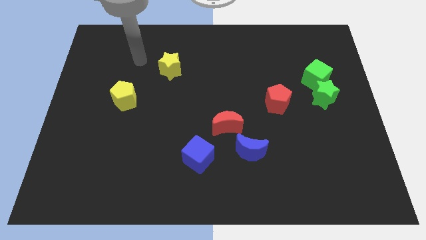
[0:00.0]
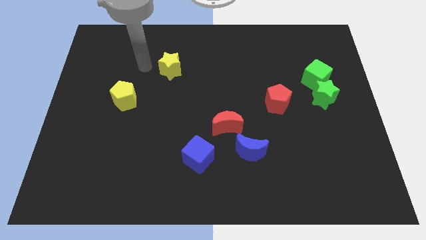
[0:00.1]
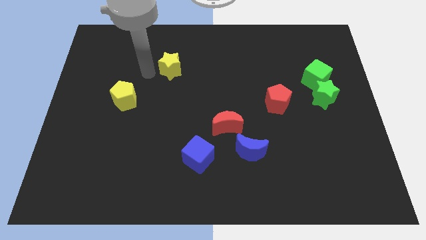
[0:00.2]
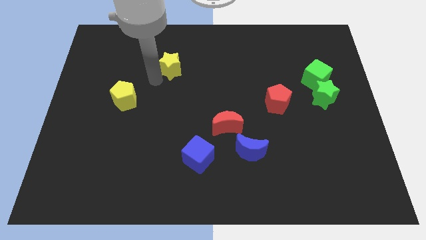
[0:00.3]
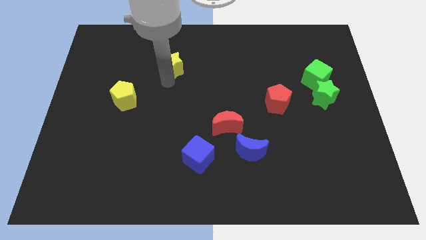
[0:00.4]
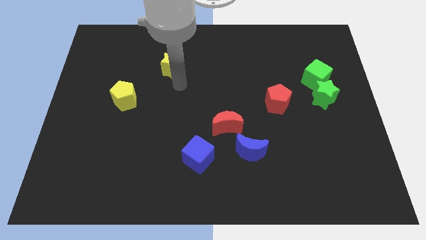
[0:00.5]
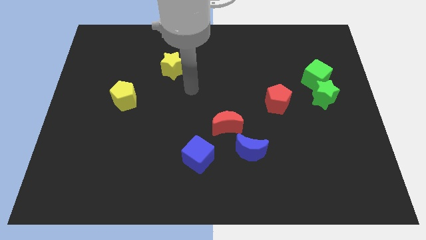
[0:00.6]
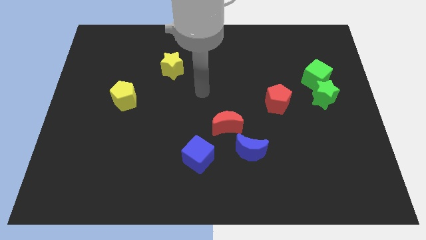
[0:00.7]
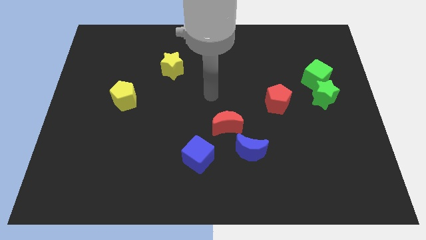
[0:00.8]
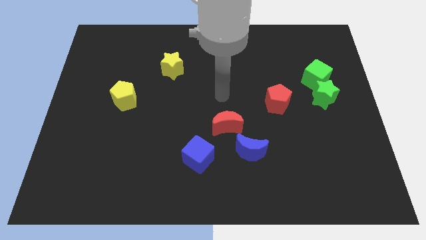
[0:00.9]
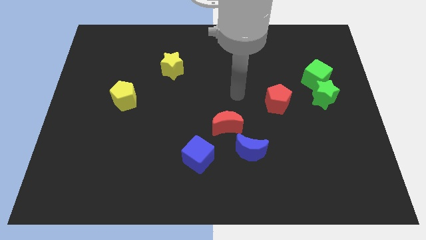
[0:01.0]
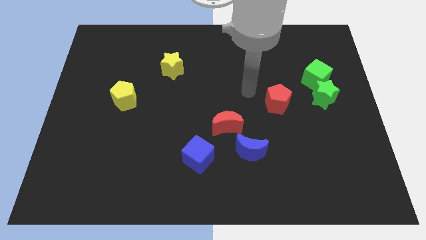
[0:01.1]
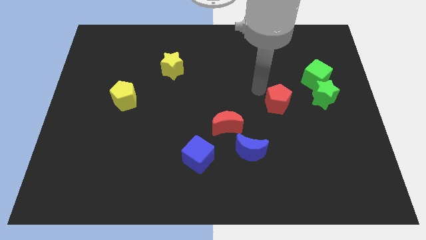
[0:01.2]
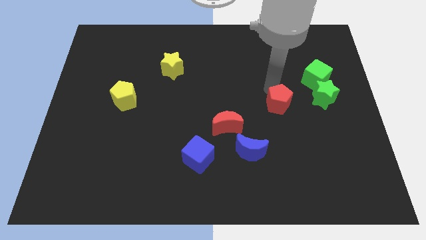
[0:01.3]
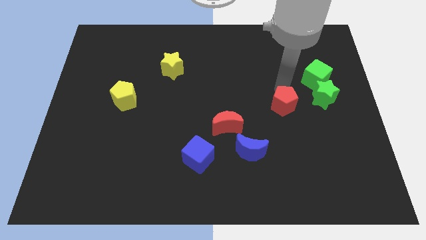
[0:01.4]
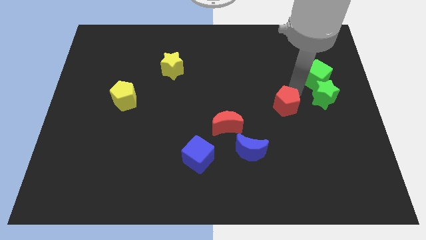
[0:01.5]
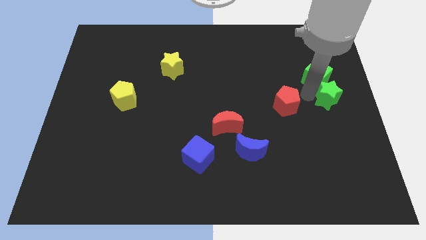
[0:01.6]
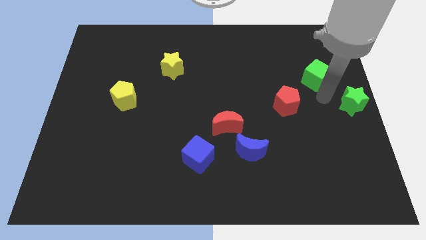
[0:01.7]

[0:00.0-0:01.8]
move the green cube away from the green star

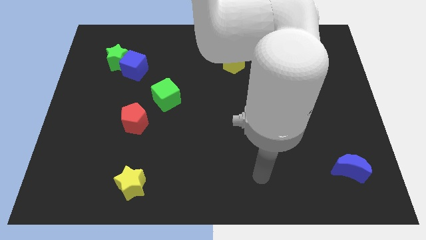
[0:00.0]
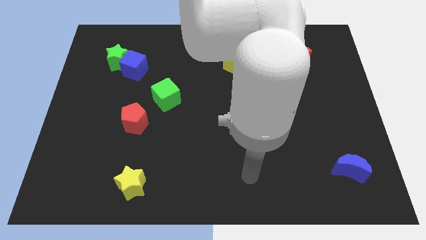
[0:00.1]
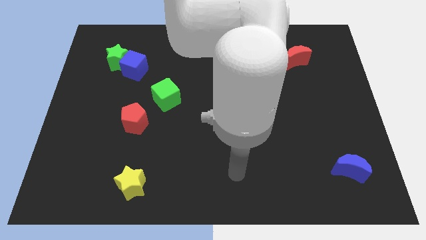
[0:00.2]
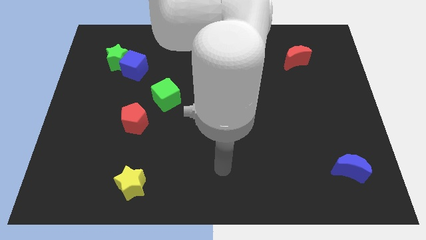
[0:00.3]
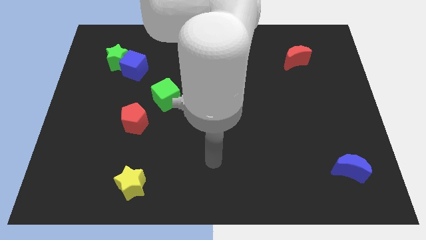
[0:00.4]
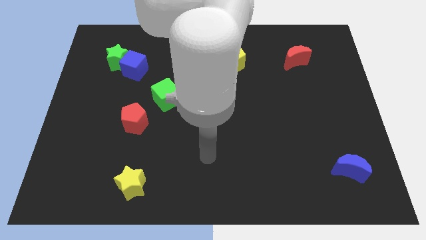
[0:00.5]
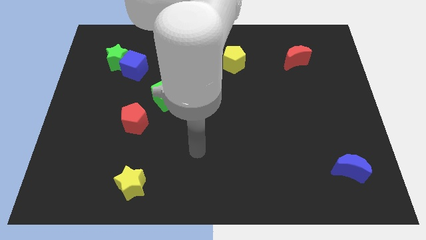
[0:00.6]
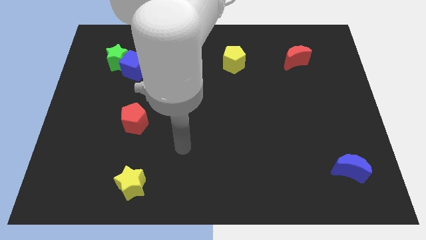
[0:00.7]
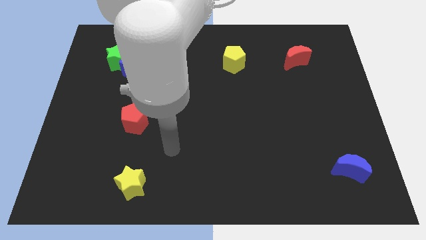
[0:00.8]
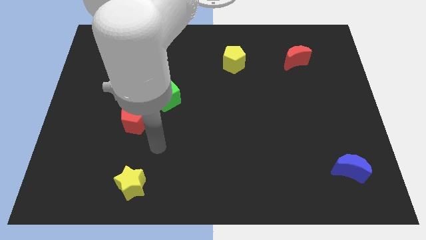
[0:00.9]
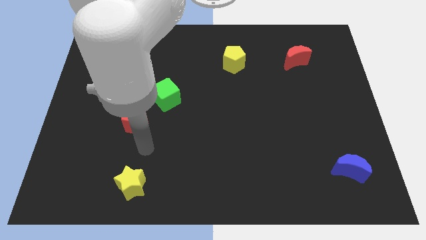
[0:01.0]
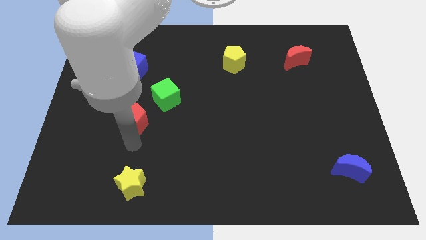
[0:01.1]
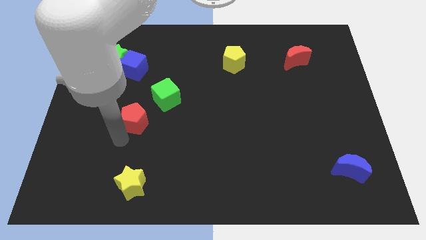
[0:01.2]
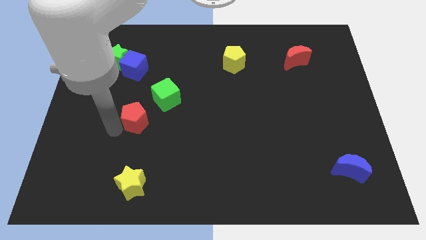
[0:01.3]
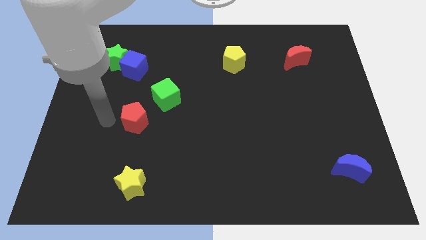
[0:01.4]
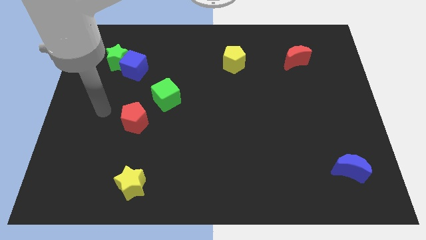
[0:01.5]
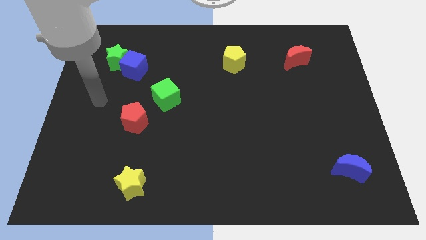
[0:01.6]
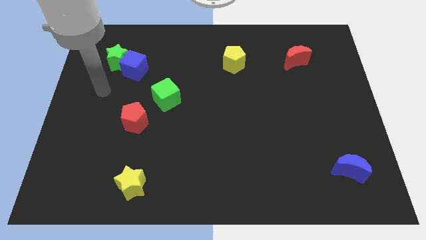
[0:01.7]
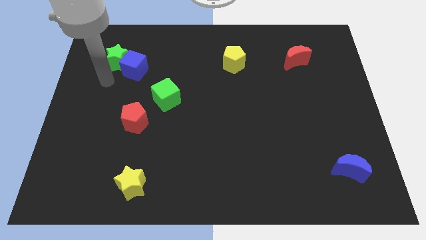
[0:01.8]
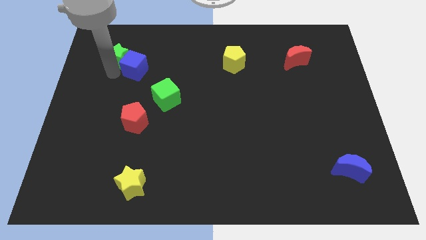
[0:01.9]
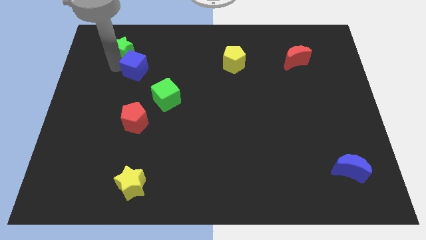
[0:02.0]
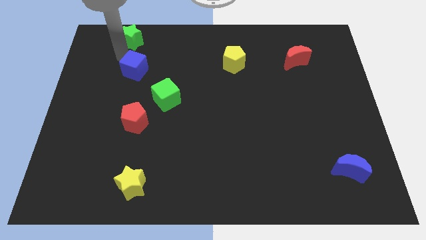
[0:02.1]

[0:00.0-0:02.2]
move the blue cube away from the green star

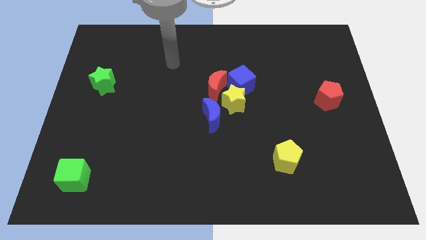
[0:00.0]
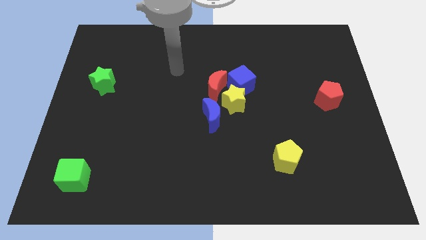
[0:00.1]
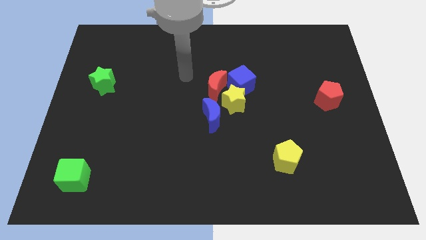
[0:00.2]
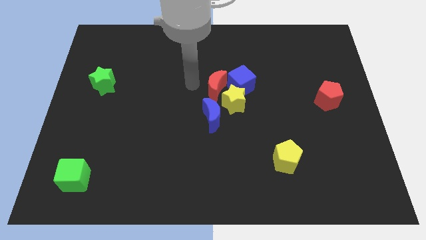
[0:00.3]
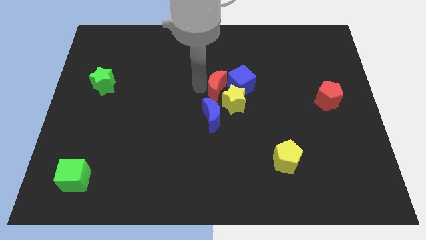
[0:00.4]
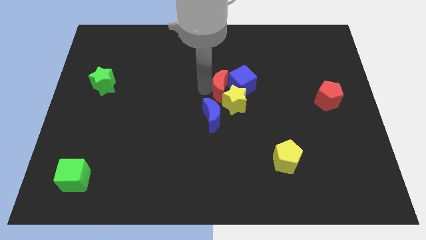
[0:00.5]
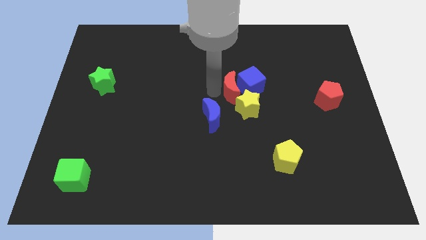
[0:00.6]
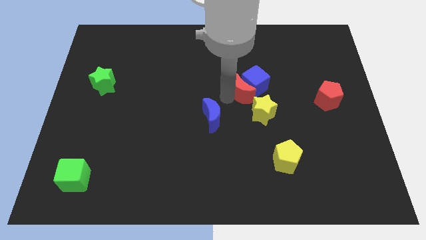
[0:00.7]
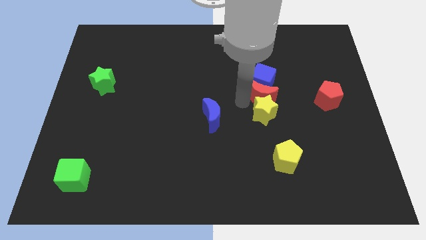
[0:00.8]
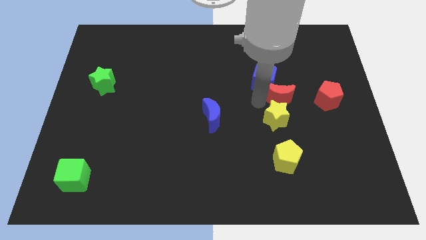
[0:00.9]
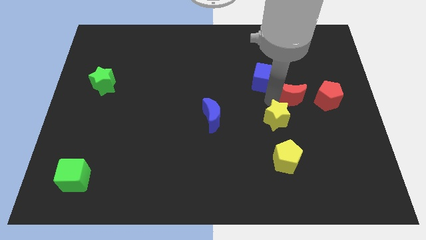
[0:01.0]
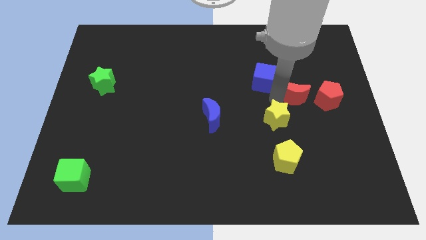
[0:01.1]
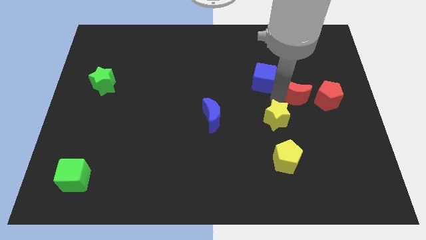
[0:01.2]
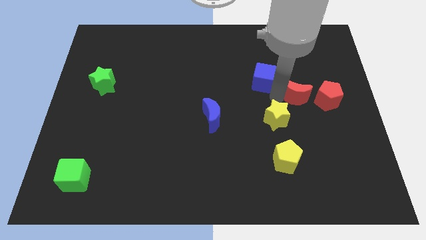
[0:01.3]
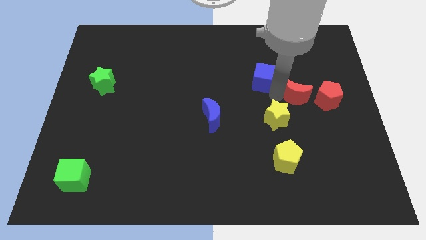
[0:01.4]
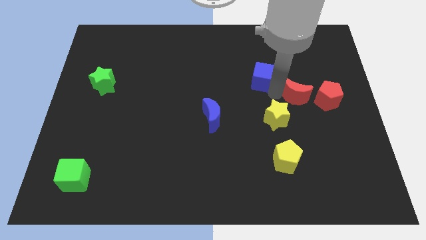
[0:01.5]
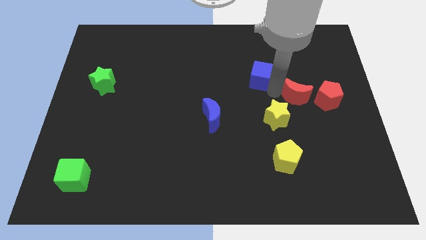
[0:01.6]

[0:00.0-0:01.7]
separate the blue cube from the yellow star and red moon

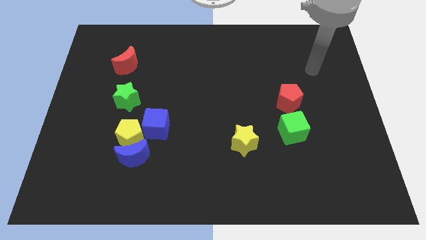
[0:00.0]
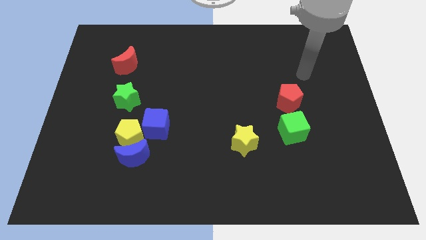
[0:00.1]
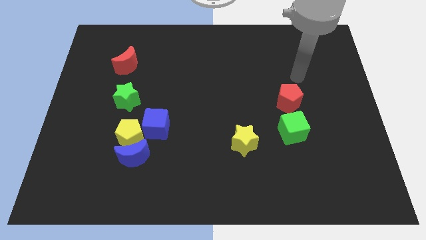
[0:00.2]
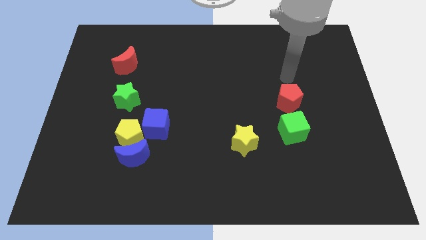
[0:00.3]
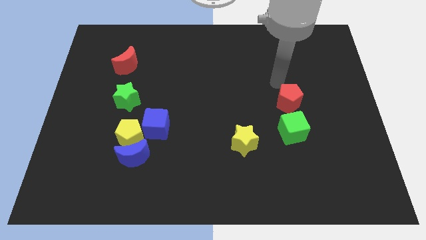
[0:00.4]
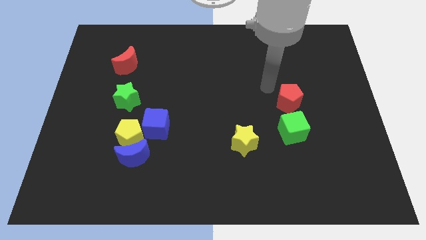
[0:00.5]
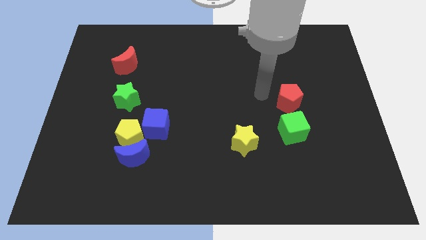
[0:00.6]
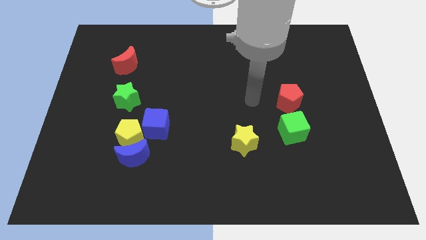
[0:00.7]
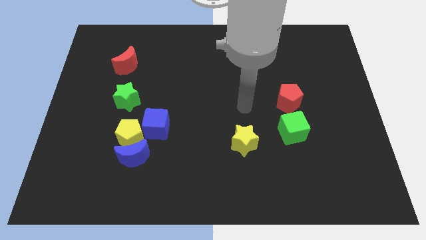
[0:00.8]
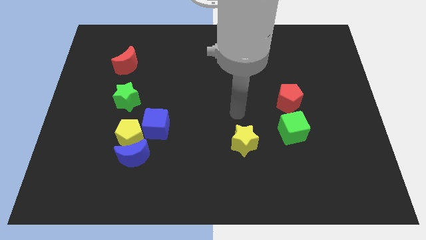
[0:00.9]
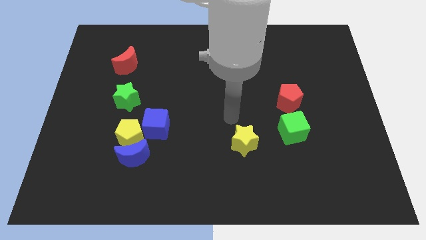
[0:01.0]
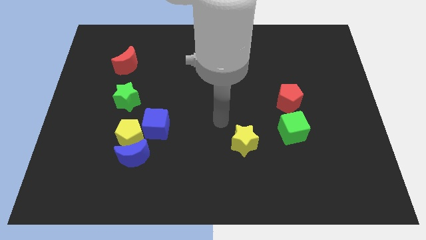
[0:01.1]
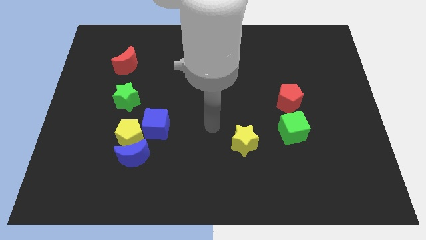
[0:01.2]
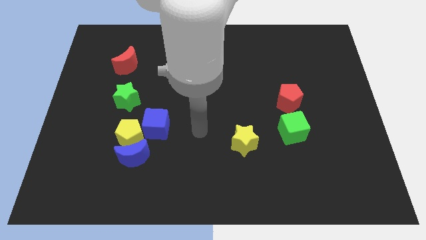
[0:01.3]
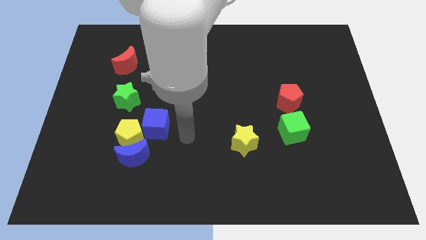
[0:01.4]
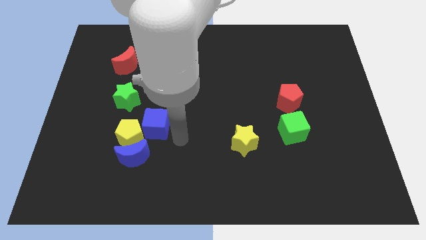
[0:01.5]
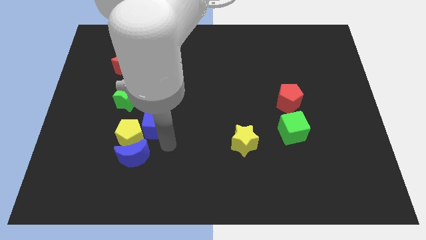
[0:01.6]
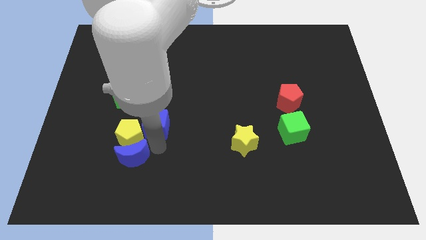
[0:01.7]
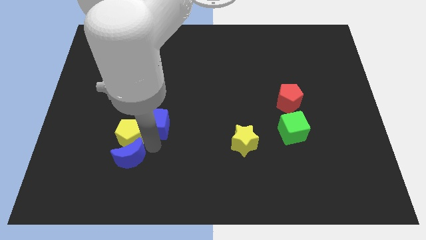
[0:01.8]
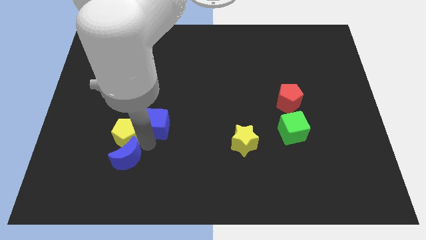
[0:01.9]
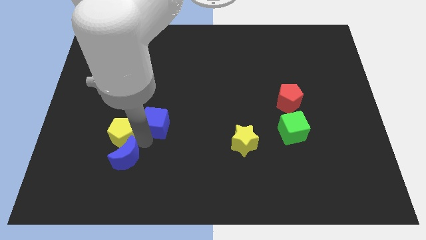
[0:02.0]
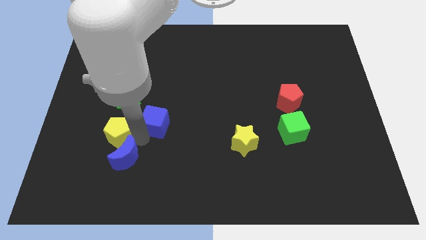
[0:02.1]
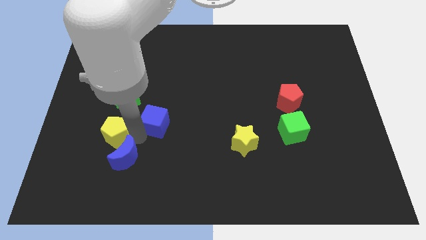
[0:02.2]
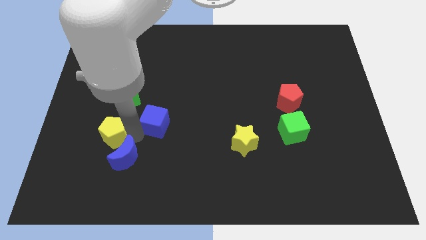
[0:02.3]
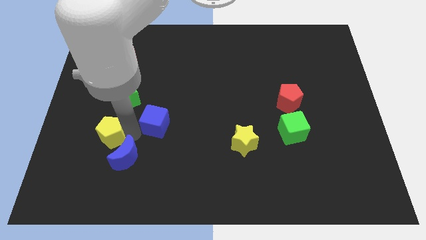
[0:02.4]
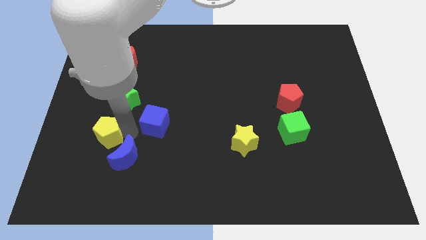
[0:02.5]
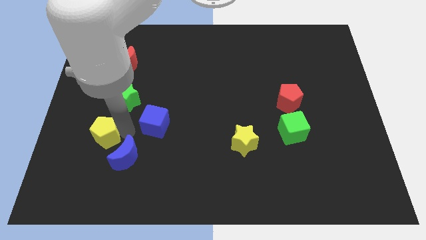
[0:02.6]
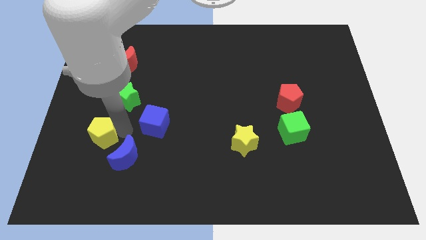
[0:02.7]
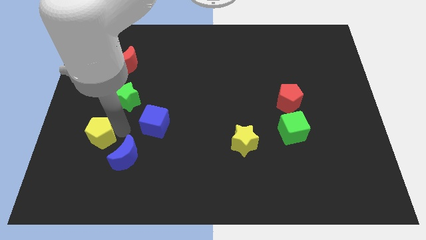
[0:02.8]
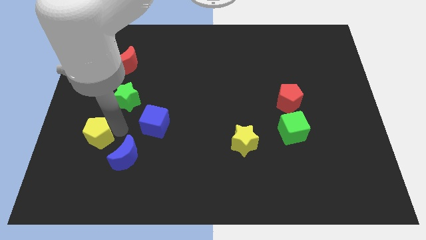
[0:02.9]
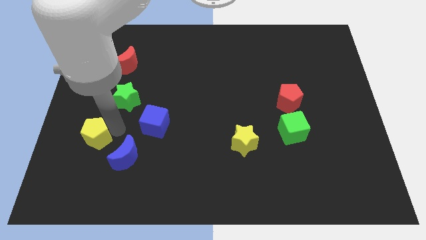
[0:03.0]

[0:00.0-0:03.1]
move the yellow pentagon away from the blue moon and blue cube

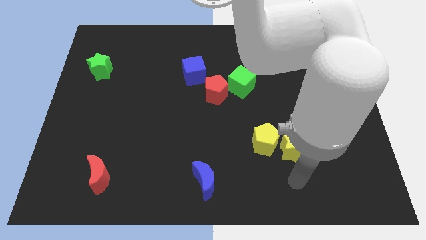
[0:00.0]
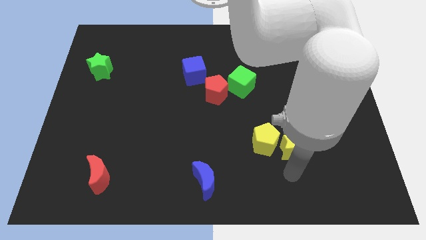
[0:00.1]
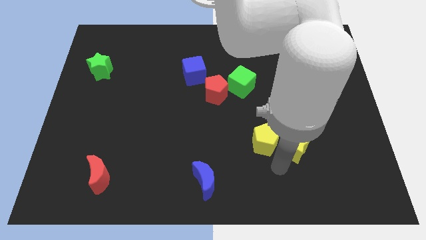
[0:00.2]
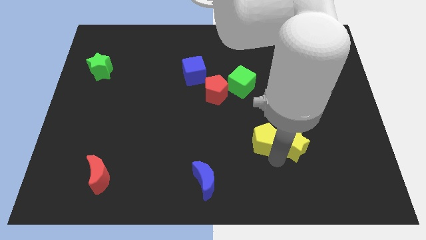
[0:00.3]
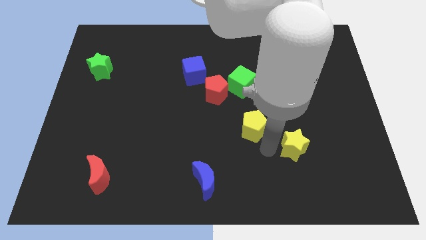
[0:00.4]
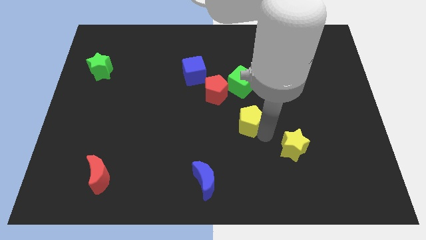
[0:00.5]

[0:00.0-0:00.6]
separate the yellow star from the yellow pentagon
